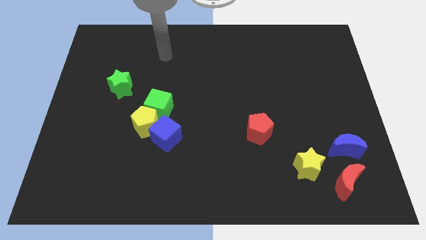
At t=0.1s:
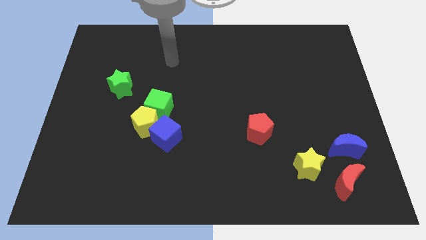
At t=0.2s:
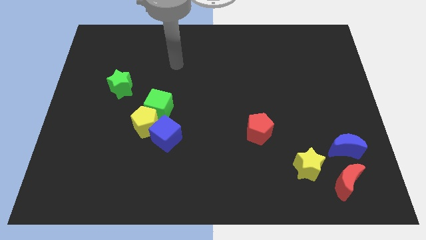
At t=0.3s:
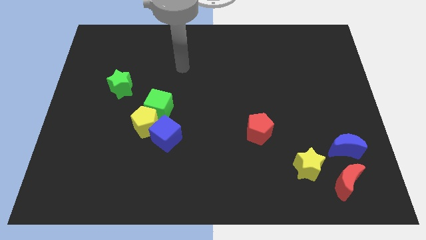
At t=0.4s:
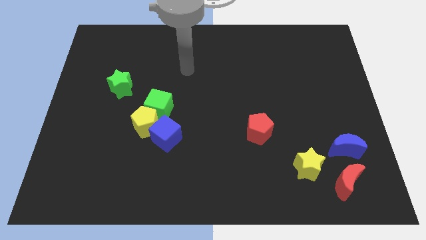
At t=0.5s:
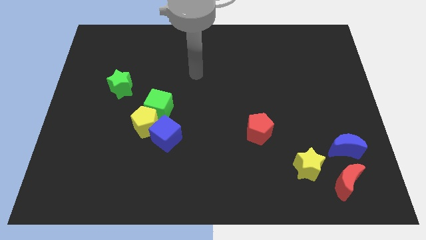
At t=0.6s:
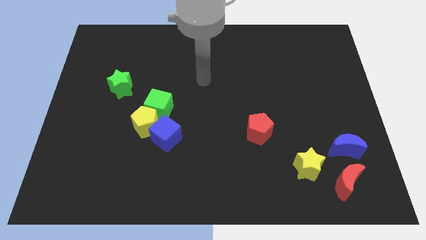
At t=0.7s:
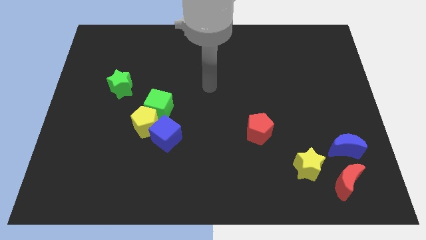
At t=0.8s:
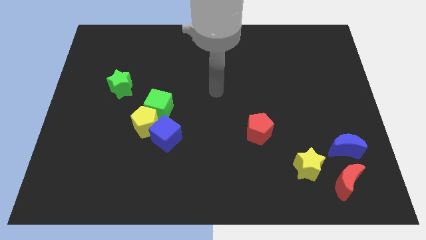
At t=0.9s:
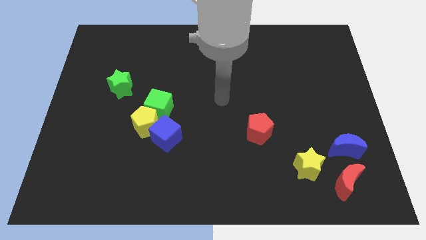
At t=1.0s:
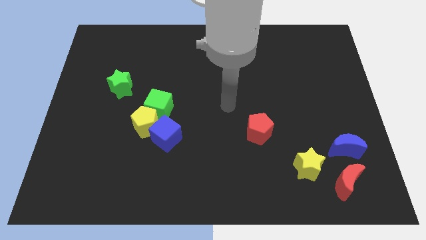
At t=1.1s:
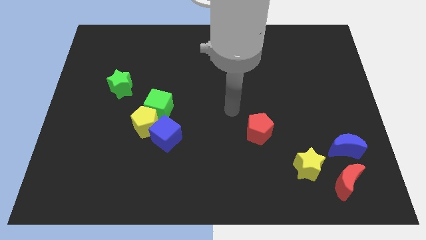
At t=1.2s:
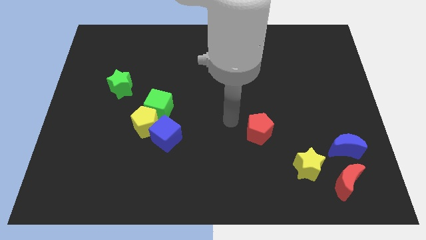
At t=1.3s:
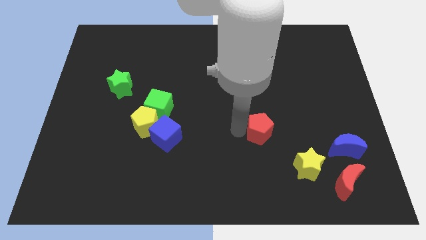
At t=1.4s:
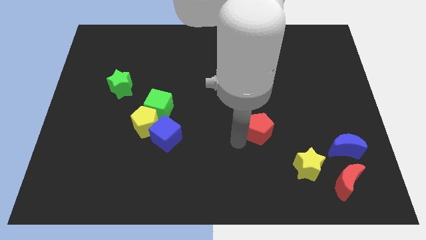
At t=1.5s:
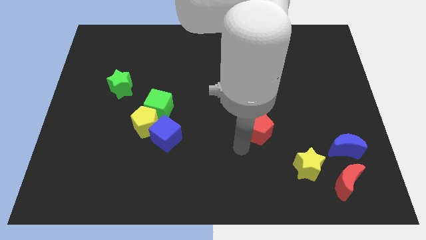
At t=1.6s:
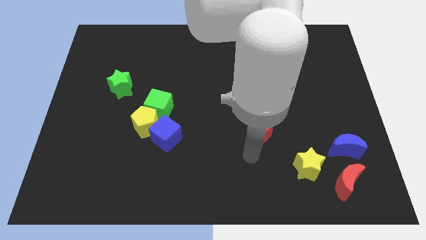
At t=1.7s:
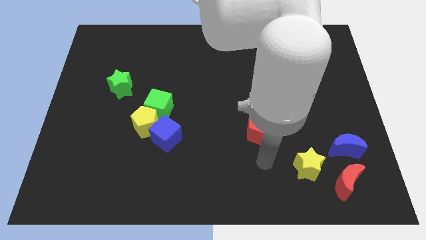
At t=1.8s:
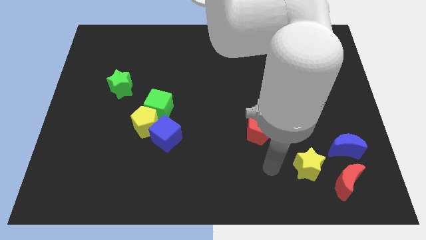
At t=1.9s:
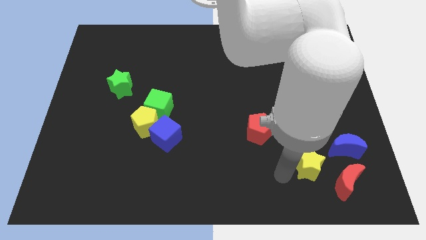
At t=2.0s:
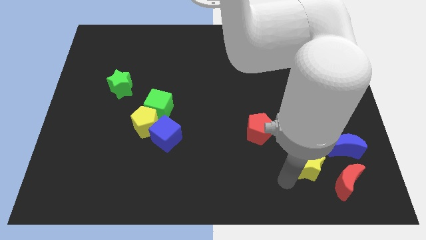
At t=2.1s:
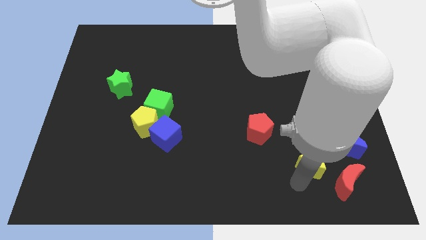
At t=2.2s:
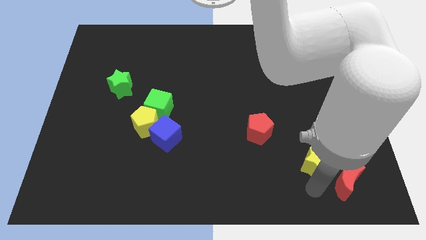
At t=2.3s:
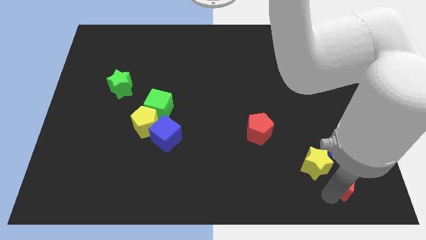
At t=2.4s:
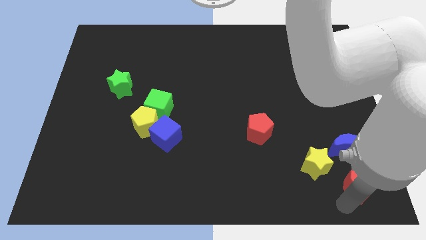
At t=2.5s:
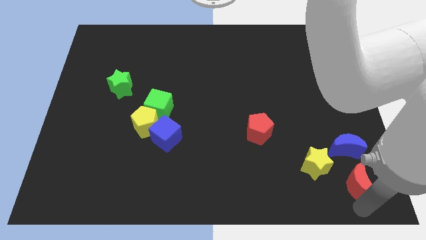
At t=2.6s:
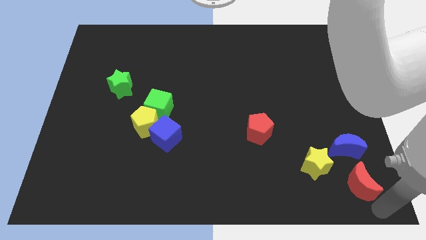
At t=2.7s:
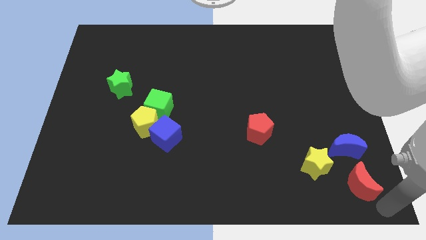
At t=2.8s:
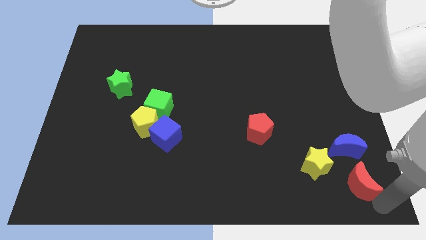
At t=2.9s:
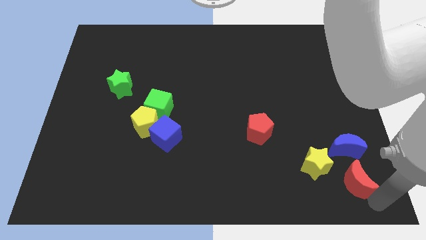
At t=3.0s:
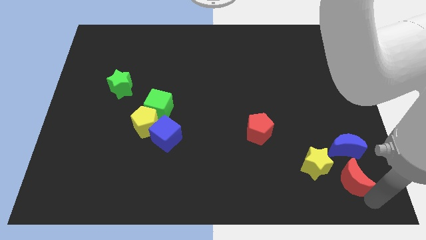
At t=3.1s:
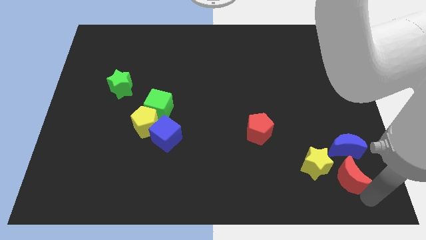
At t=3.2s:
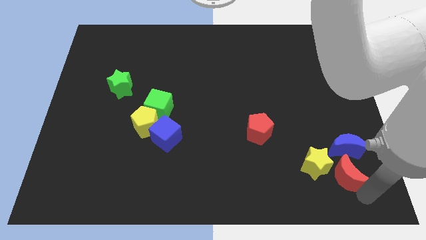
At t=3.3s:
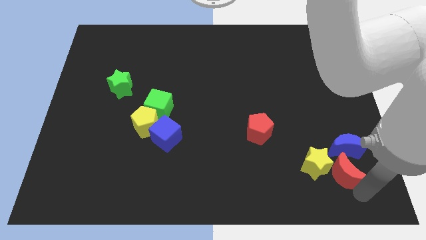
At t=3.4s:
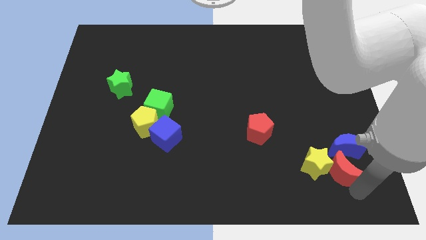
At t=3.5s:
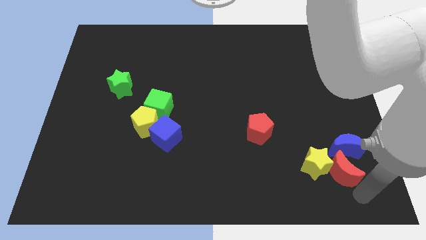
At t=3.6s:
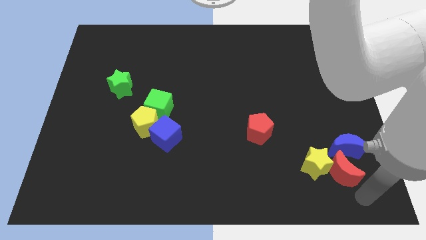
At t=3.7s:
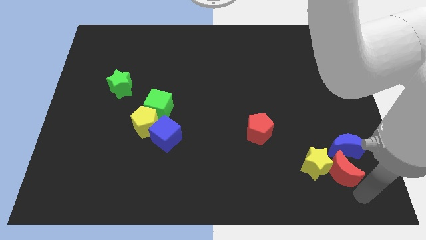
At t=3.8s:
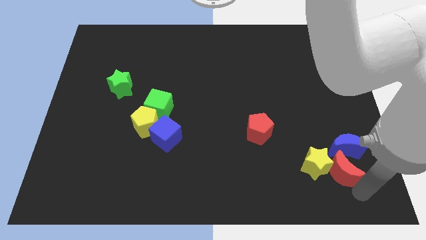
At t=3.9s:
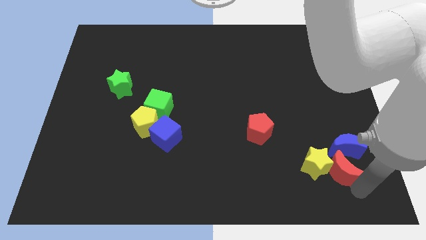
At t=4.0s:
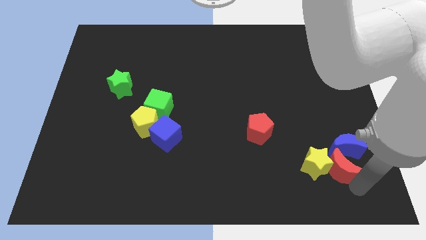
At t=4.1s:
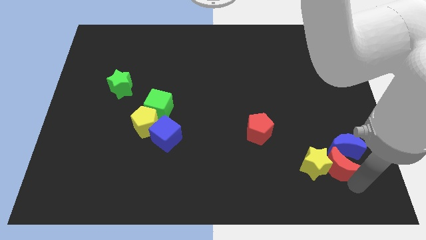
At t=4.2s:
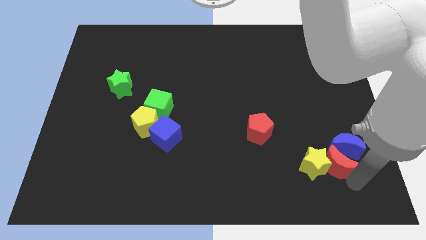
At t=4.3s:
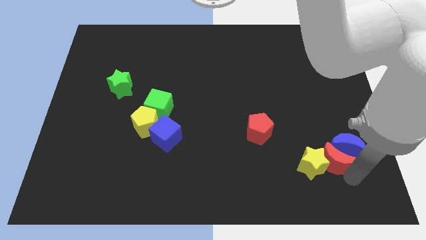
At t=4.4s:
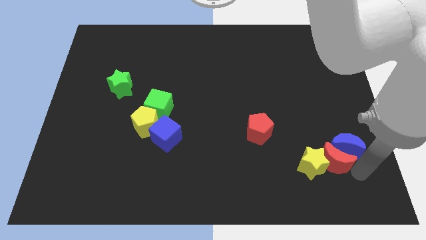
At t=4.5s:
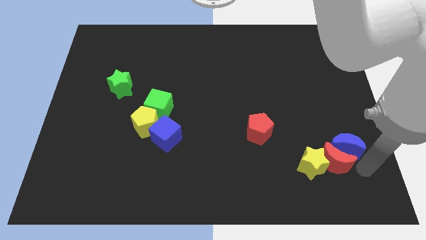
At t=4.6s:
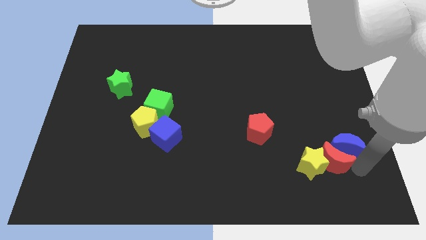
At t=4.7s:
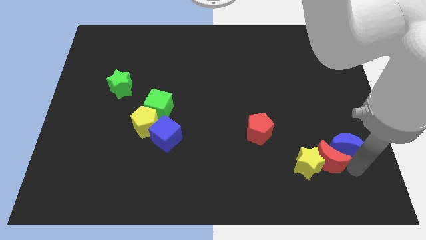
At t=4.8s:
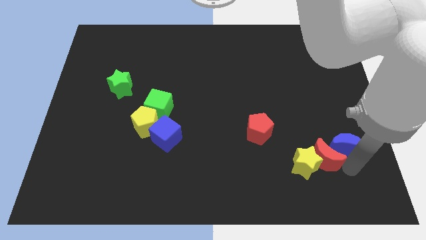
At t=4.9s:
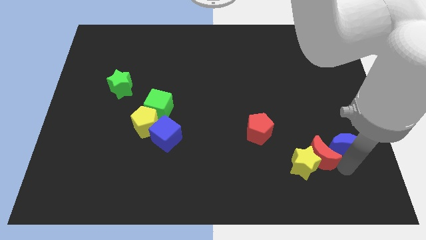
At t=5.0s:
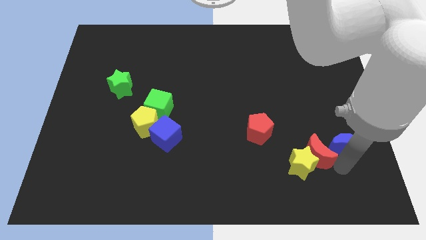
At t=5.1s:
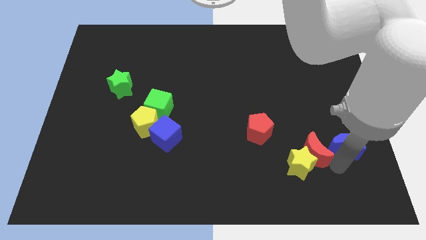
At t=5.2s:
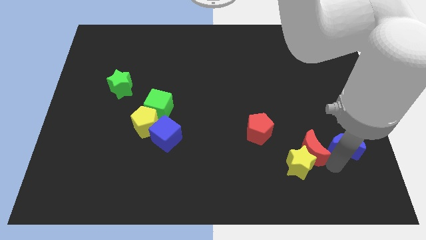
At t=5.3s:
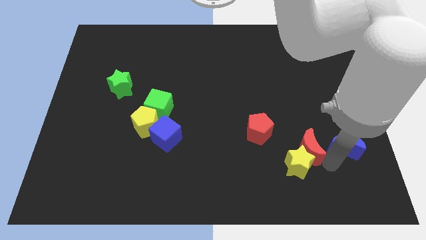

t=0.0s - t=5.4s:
move the red moon to the bottom right of the red pentagon

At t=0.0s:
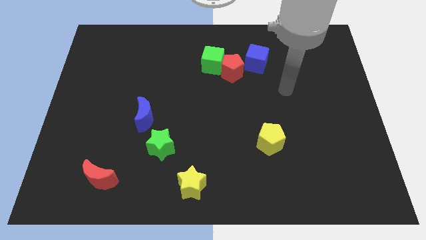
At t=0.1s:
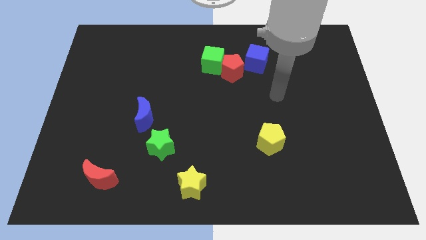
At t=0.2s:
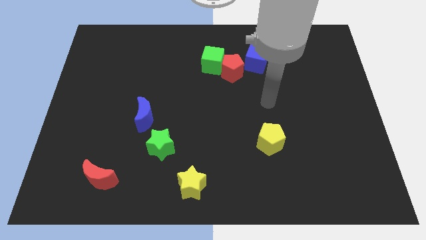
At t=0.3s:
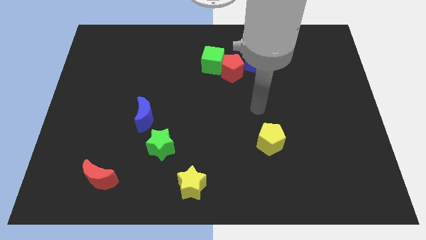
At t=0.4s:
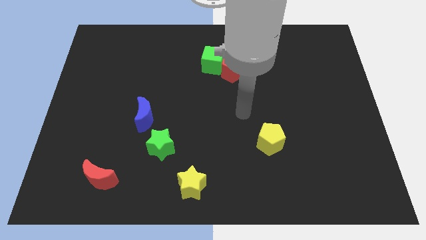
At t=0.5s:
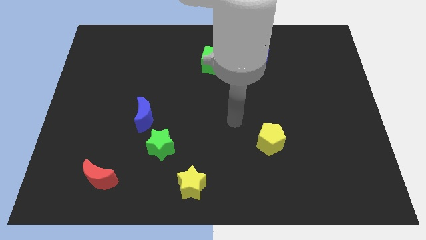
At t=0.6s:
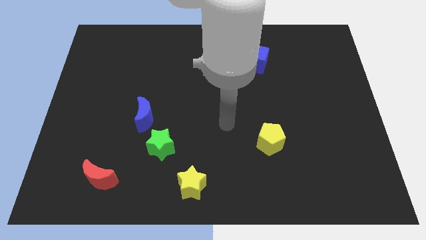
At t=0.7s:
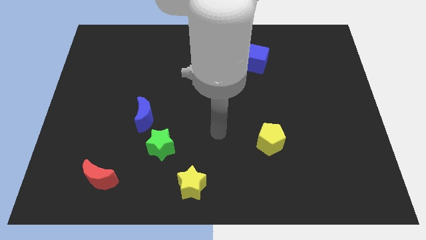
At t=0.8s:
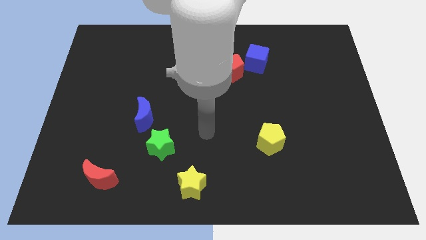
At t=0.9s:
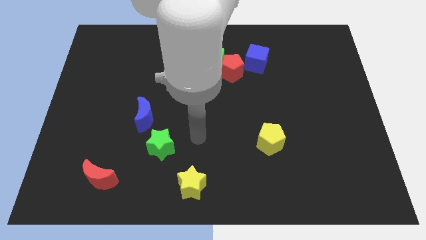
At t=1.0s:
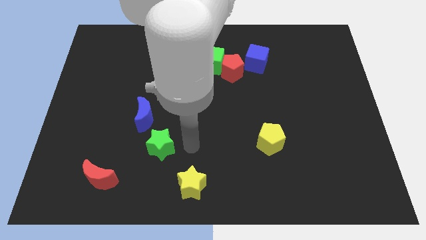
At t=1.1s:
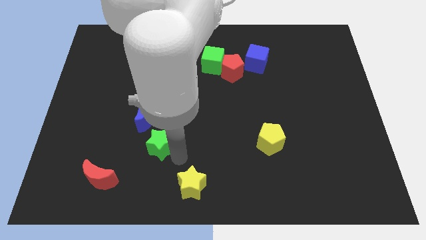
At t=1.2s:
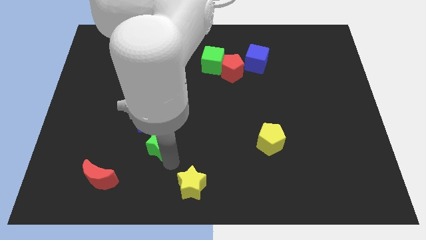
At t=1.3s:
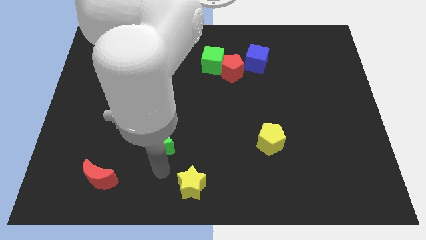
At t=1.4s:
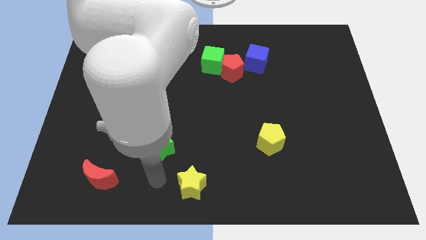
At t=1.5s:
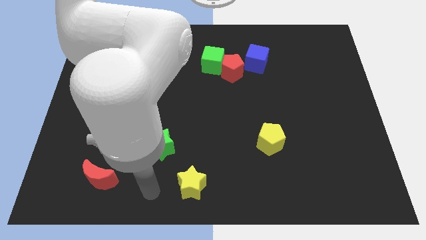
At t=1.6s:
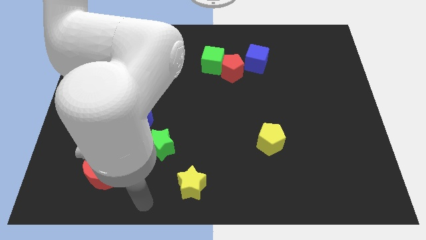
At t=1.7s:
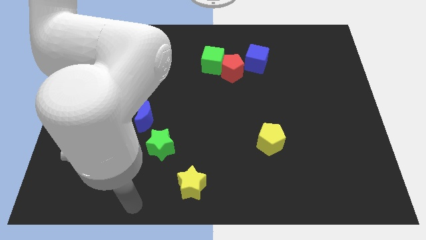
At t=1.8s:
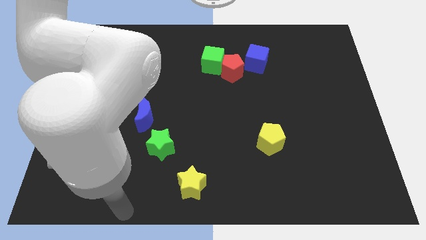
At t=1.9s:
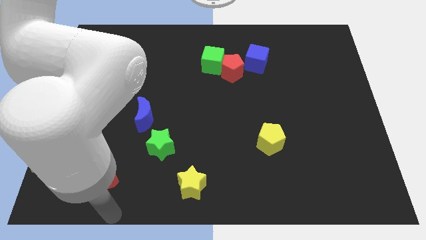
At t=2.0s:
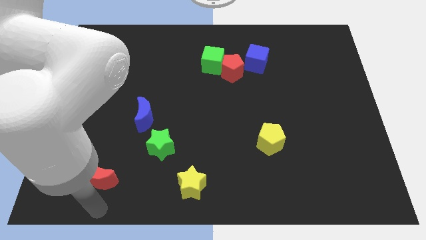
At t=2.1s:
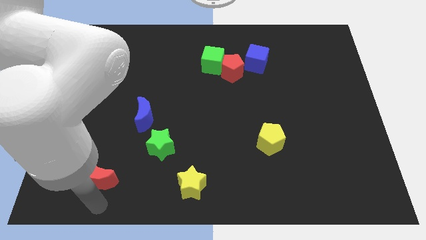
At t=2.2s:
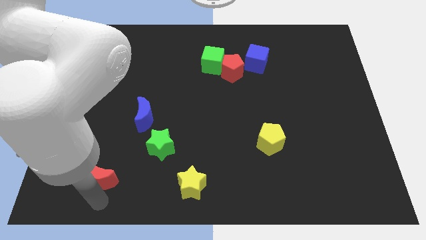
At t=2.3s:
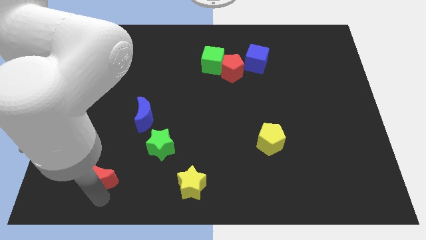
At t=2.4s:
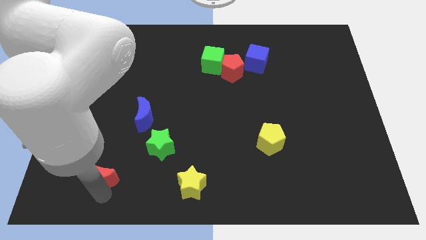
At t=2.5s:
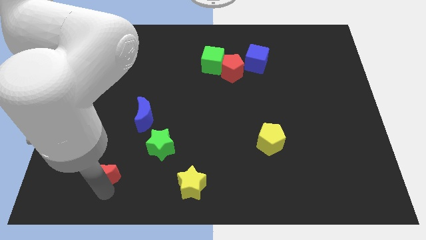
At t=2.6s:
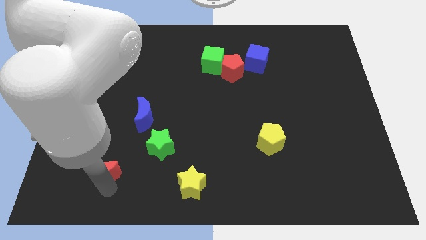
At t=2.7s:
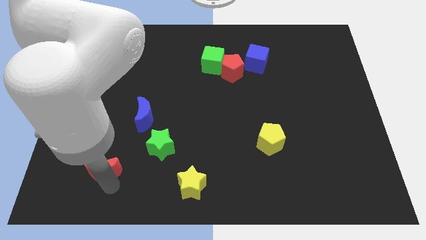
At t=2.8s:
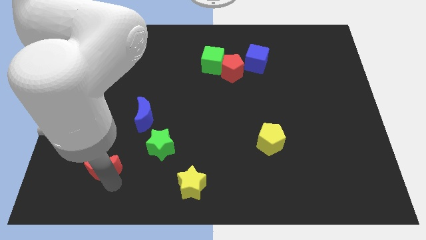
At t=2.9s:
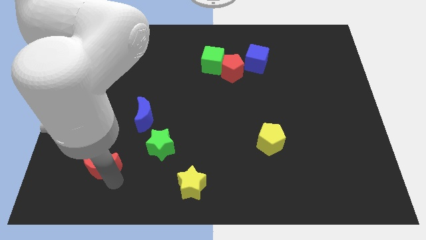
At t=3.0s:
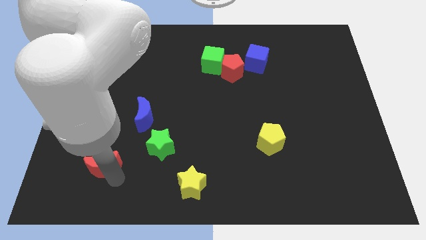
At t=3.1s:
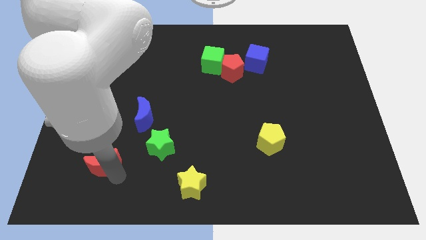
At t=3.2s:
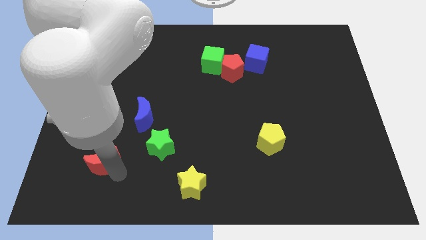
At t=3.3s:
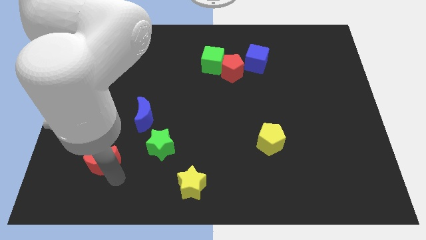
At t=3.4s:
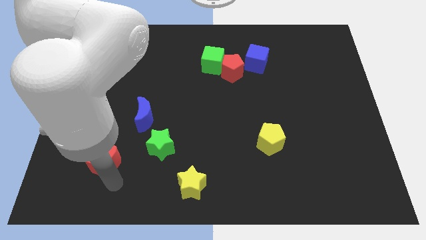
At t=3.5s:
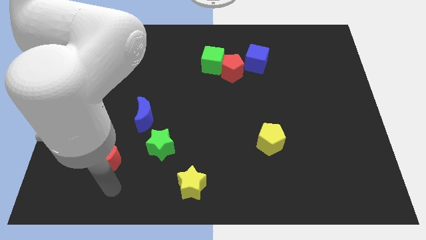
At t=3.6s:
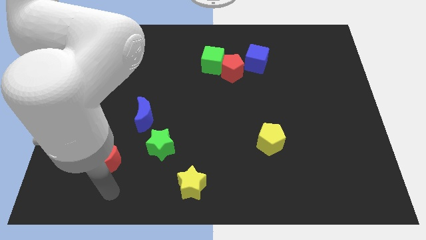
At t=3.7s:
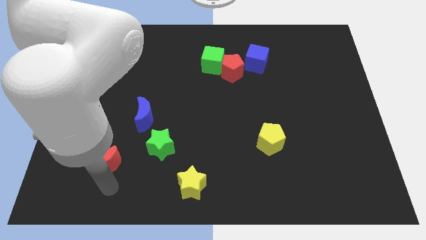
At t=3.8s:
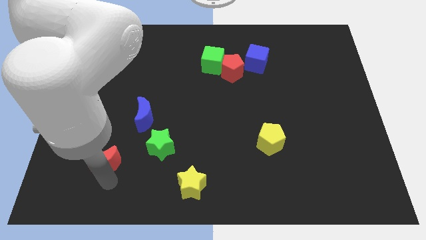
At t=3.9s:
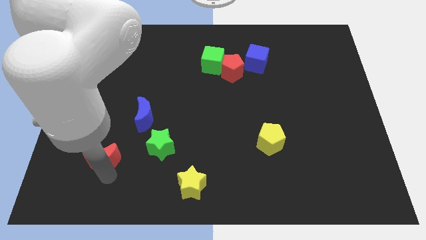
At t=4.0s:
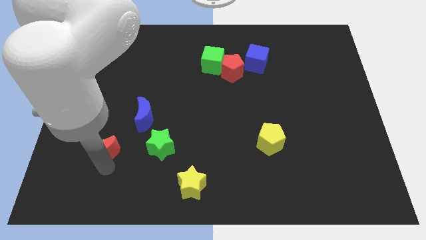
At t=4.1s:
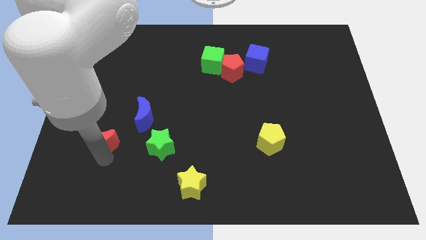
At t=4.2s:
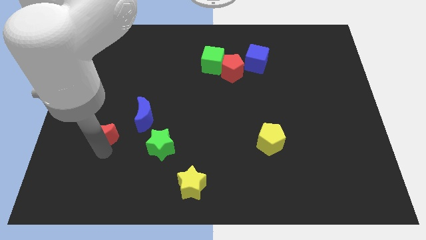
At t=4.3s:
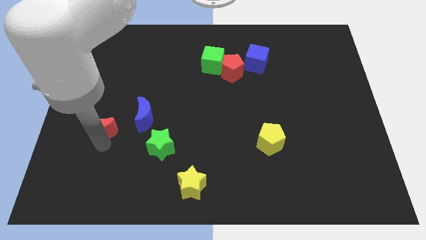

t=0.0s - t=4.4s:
slide the red moon to the left side of the blue moon
